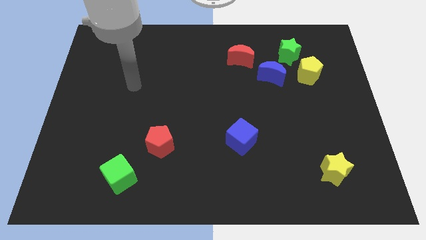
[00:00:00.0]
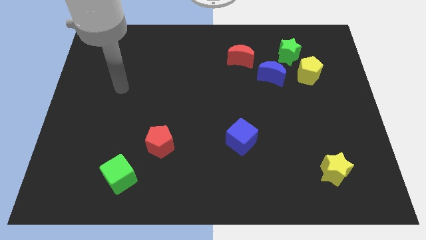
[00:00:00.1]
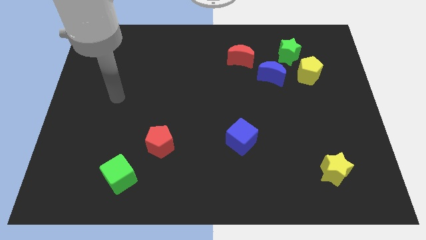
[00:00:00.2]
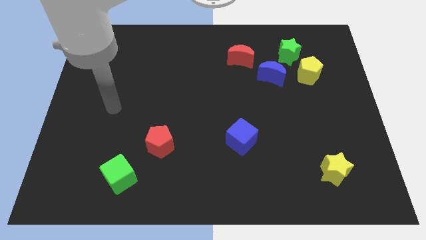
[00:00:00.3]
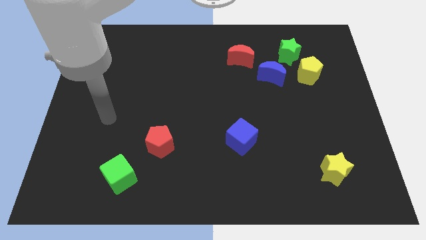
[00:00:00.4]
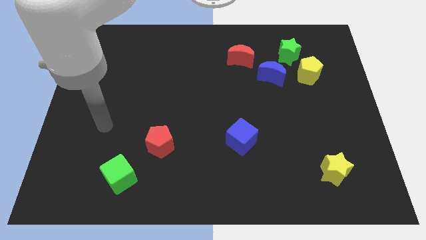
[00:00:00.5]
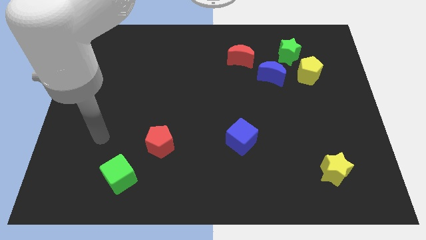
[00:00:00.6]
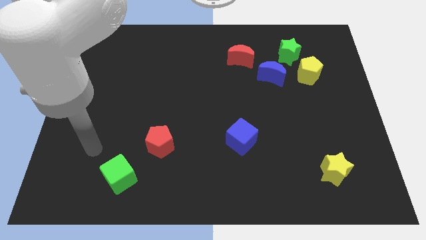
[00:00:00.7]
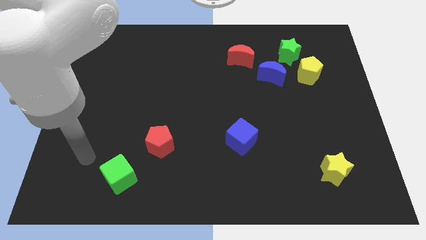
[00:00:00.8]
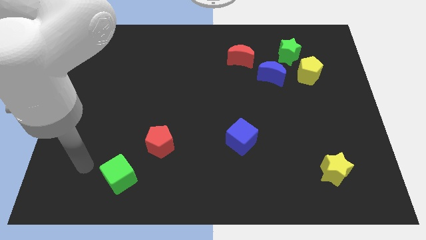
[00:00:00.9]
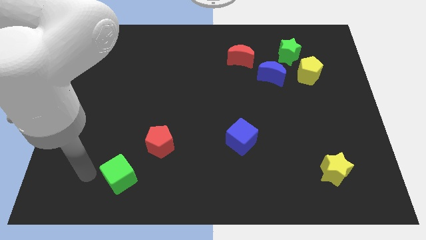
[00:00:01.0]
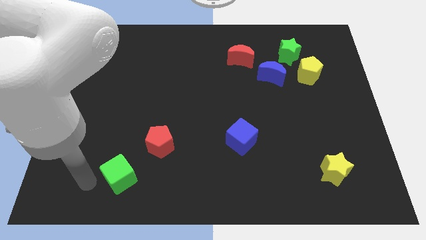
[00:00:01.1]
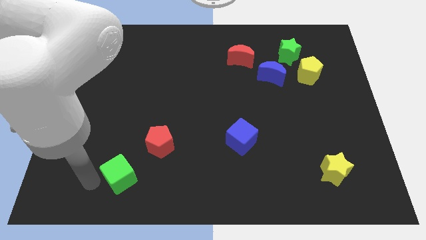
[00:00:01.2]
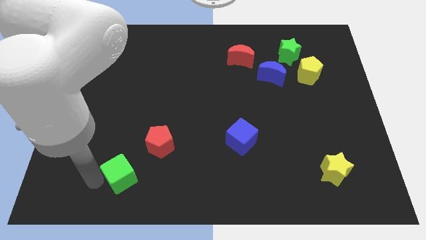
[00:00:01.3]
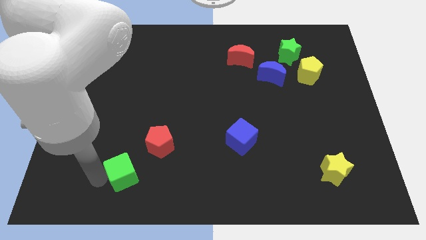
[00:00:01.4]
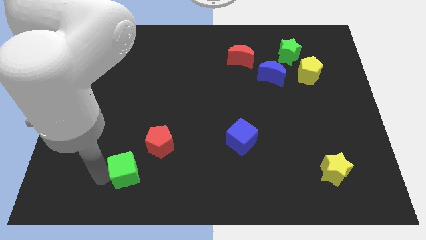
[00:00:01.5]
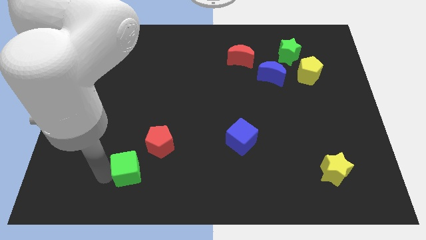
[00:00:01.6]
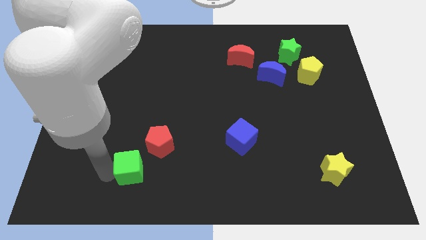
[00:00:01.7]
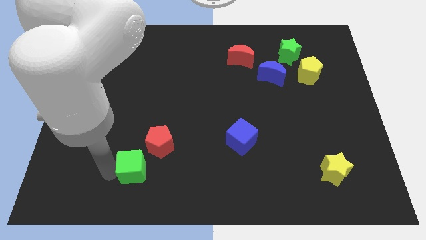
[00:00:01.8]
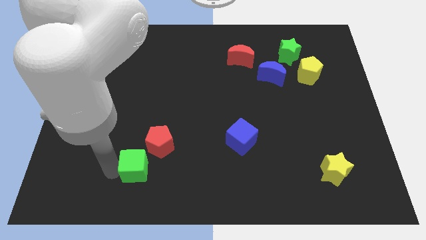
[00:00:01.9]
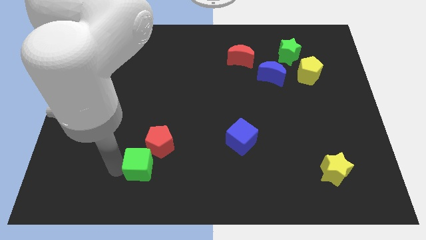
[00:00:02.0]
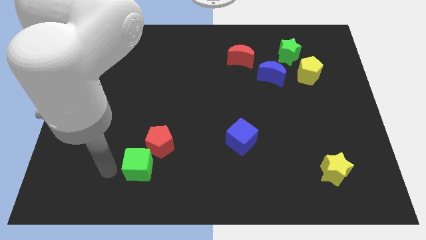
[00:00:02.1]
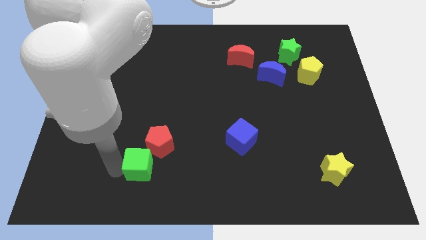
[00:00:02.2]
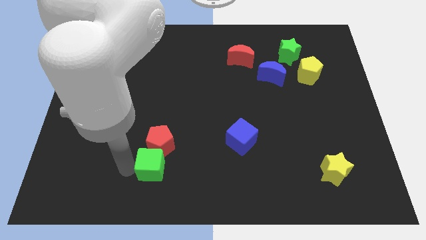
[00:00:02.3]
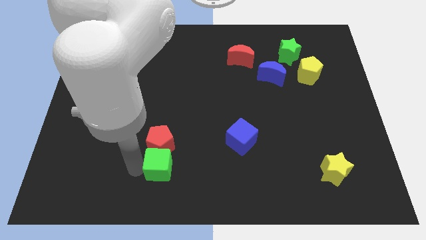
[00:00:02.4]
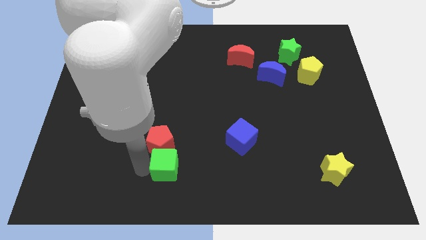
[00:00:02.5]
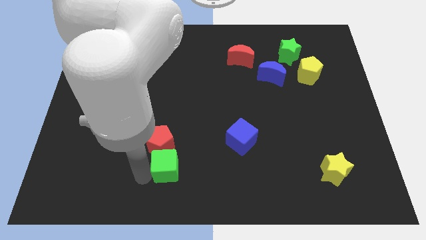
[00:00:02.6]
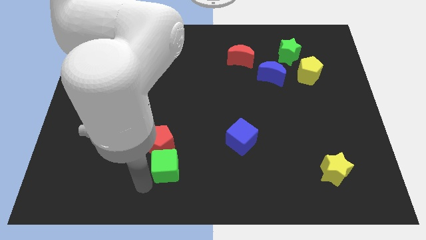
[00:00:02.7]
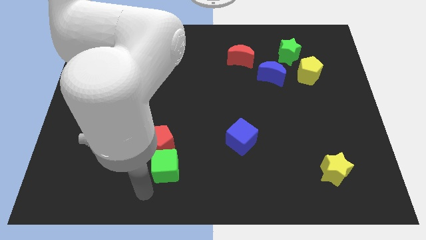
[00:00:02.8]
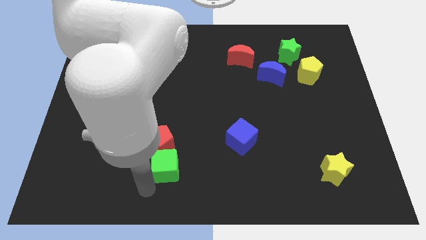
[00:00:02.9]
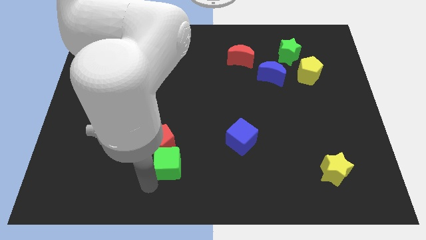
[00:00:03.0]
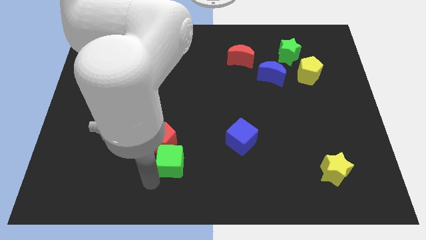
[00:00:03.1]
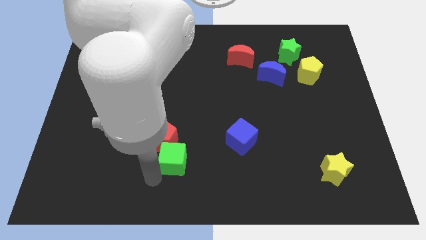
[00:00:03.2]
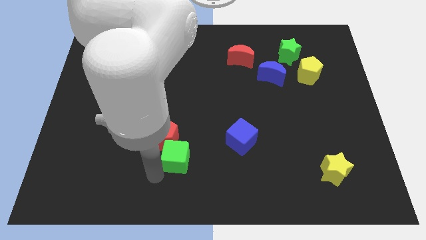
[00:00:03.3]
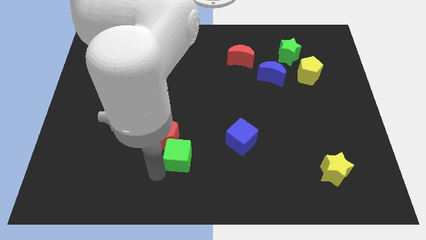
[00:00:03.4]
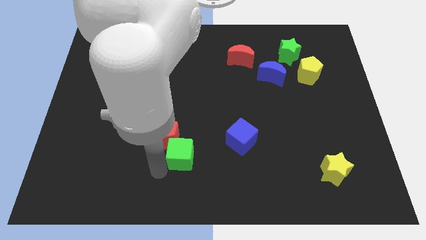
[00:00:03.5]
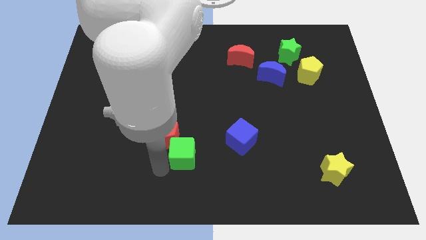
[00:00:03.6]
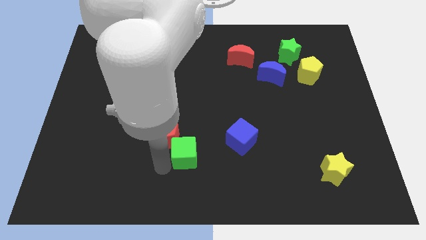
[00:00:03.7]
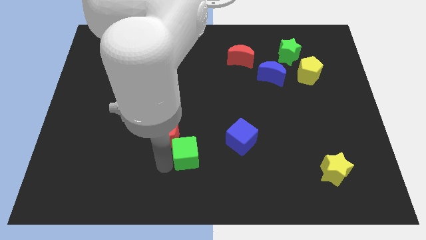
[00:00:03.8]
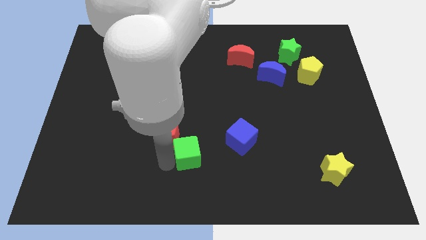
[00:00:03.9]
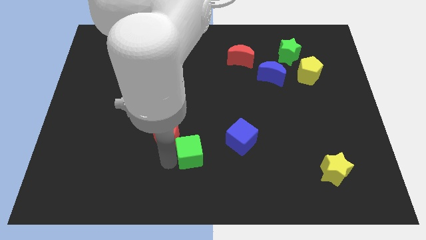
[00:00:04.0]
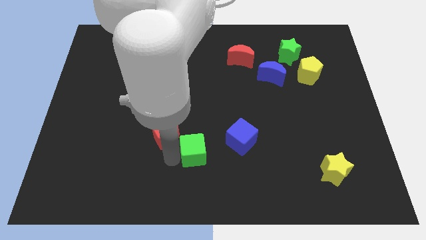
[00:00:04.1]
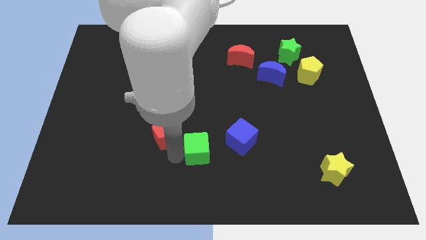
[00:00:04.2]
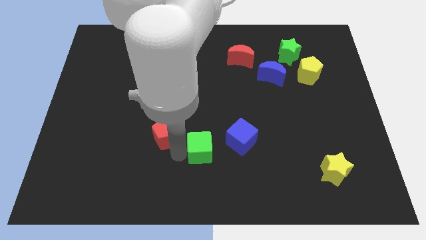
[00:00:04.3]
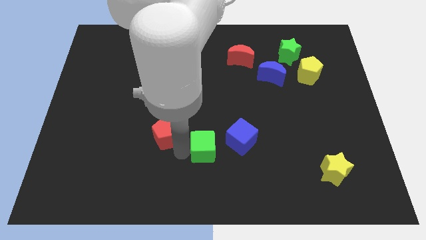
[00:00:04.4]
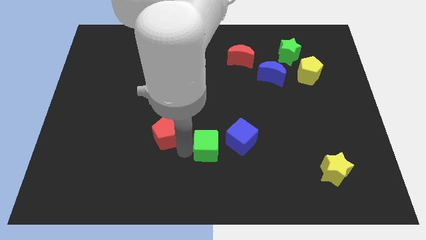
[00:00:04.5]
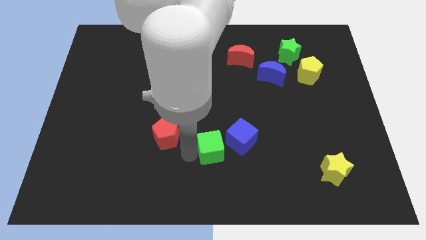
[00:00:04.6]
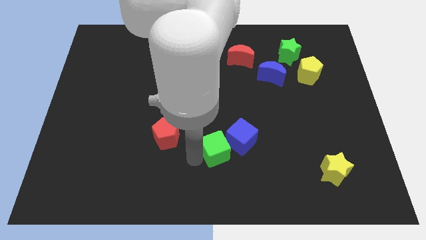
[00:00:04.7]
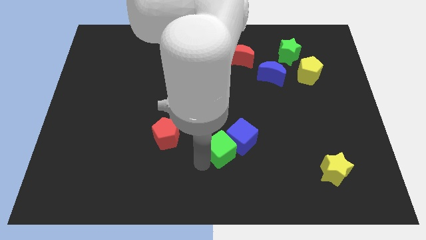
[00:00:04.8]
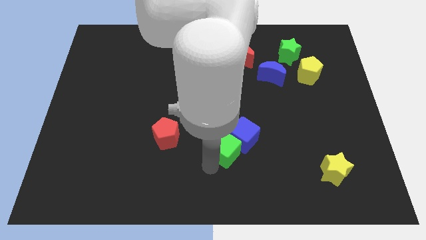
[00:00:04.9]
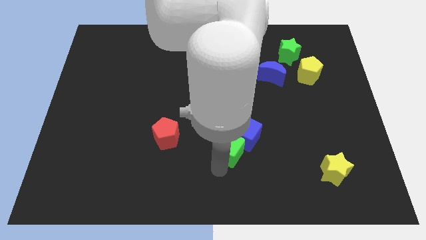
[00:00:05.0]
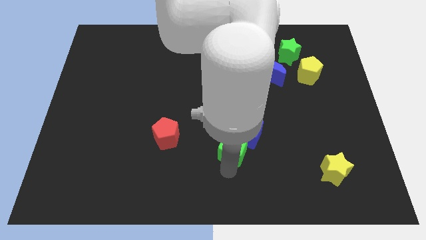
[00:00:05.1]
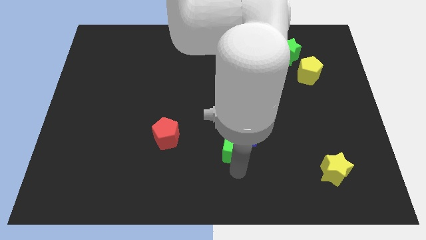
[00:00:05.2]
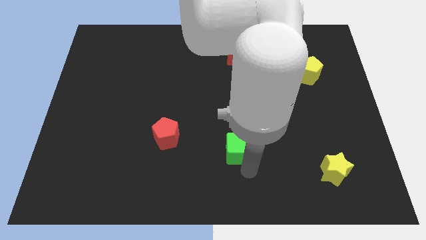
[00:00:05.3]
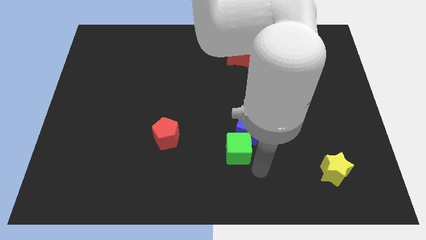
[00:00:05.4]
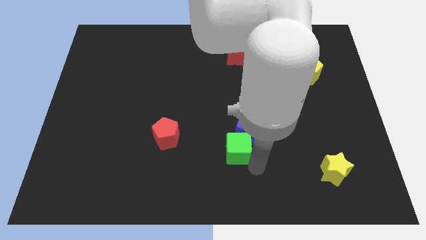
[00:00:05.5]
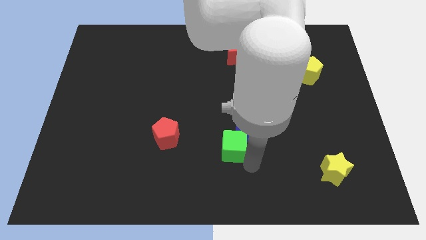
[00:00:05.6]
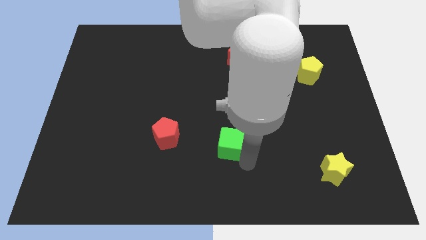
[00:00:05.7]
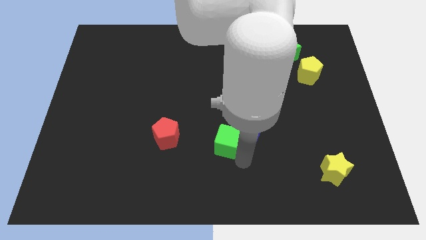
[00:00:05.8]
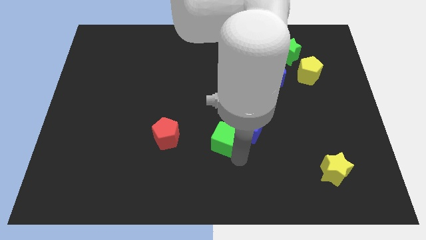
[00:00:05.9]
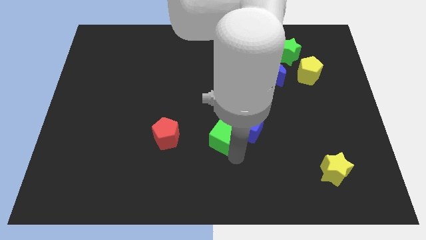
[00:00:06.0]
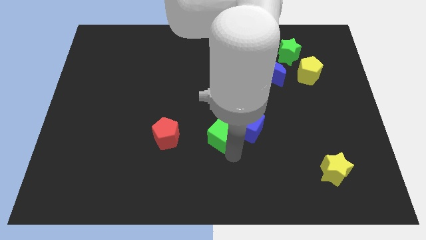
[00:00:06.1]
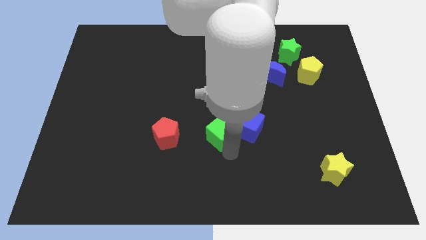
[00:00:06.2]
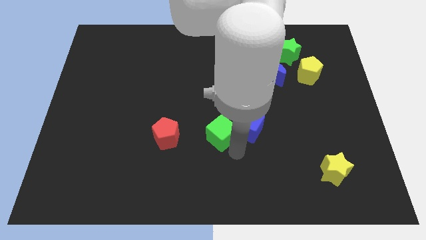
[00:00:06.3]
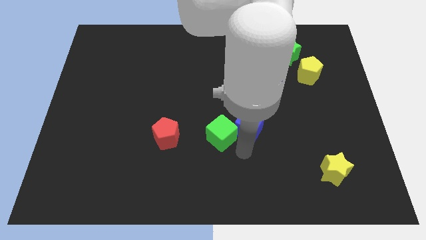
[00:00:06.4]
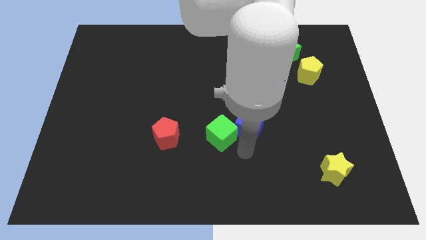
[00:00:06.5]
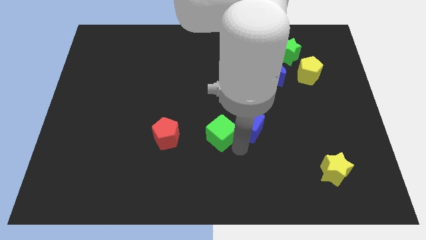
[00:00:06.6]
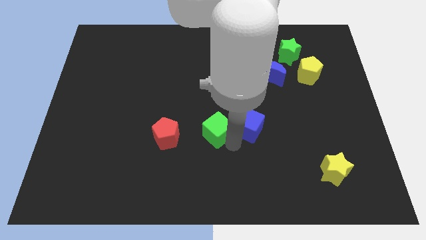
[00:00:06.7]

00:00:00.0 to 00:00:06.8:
slide the green cube diagonally up and to the right

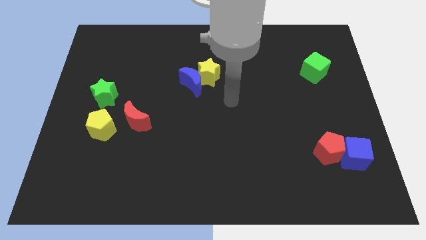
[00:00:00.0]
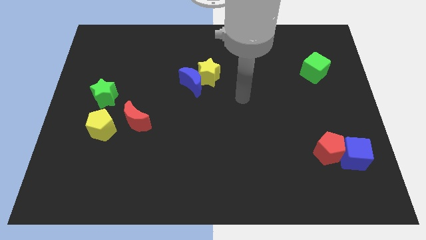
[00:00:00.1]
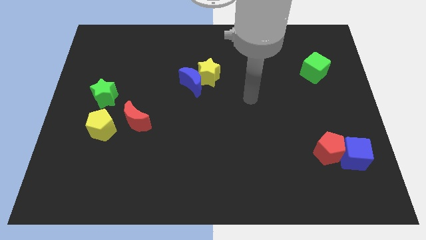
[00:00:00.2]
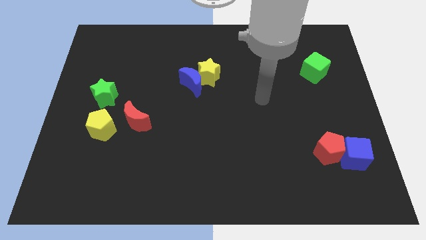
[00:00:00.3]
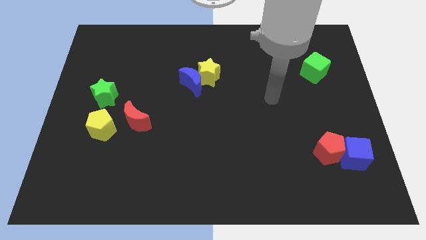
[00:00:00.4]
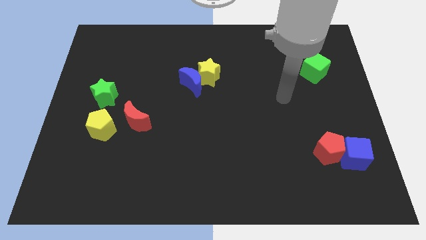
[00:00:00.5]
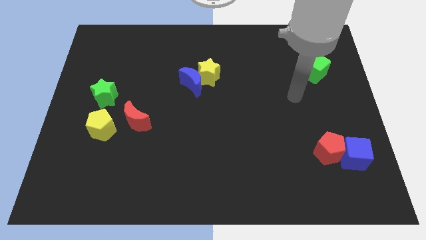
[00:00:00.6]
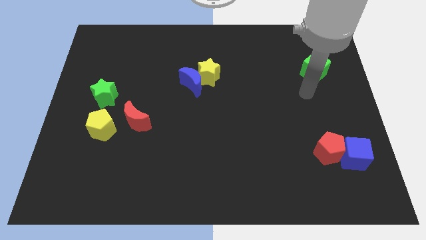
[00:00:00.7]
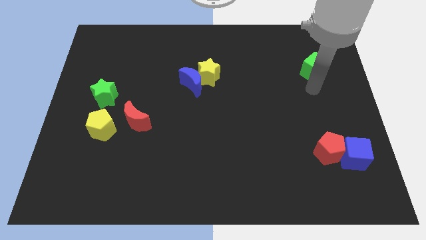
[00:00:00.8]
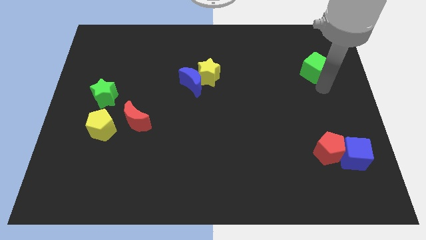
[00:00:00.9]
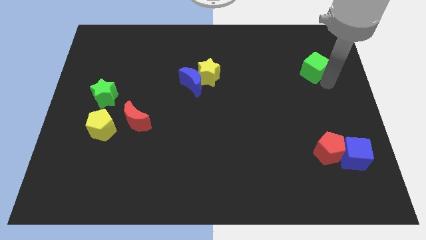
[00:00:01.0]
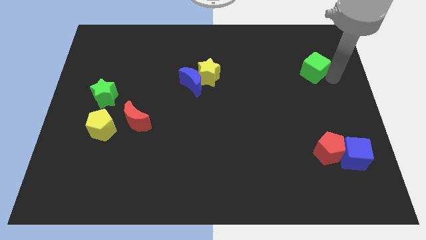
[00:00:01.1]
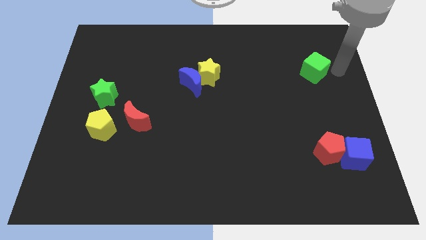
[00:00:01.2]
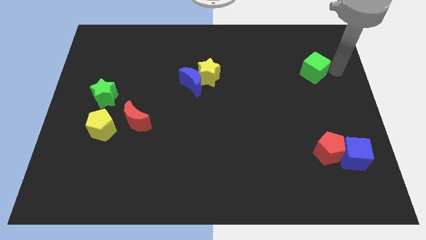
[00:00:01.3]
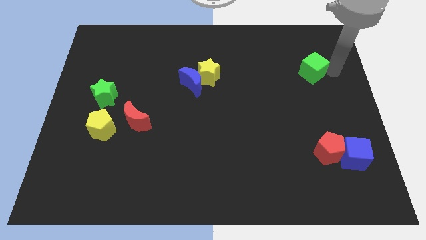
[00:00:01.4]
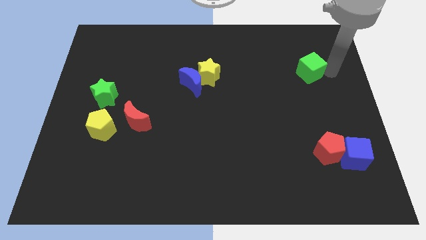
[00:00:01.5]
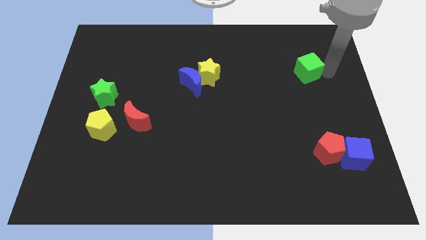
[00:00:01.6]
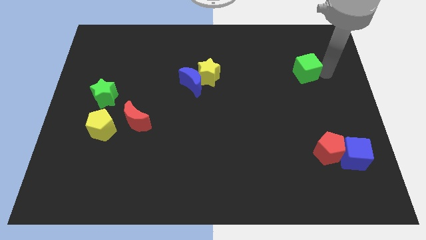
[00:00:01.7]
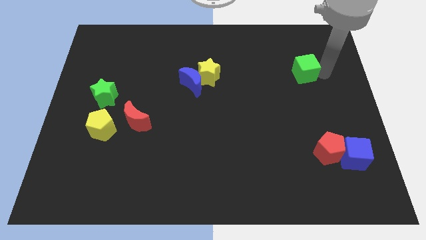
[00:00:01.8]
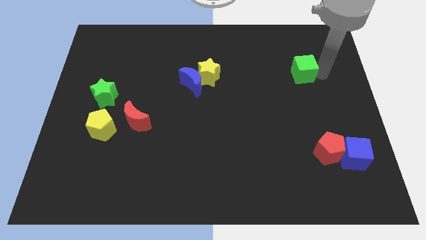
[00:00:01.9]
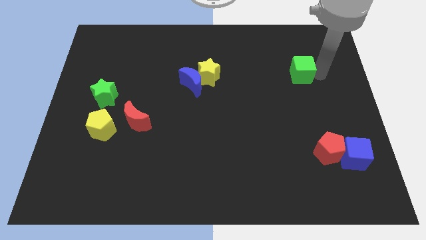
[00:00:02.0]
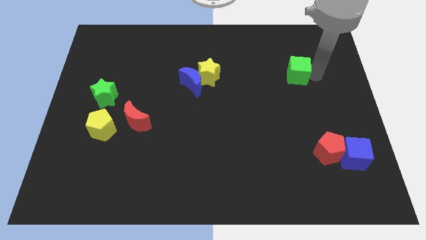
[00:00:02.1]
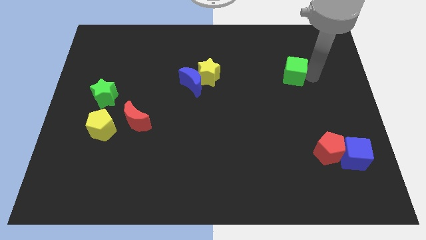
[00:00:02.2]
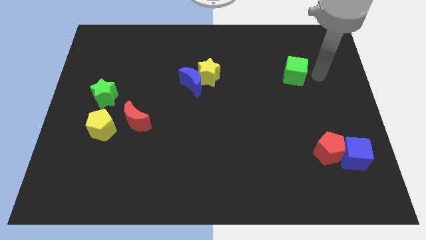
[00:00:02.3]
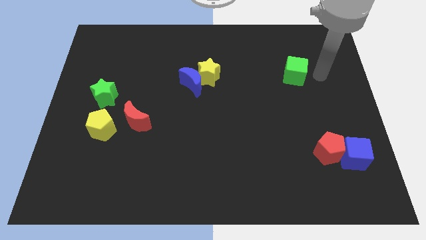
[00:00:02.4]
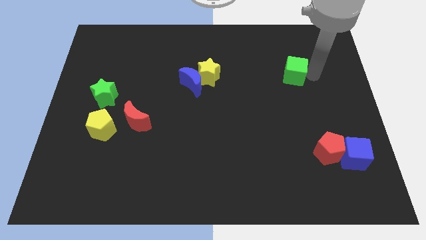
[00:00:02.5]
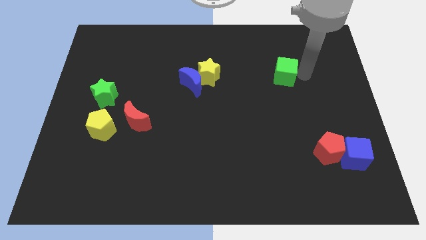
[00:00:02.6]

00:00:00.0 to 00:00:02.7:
slightly slide the green cube left
